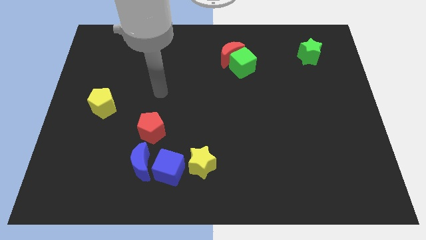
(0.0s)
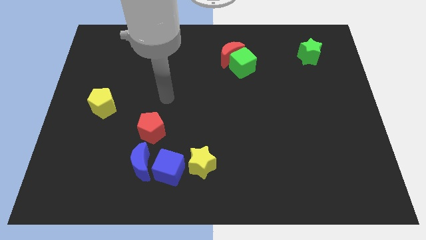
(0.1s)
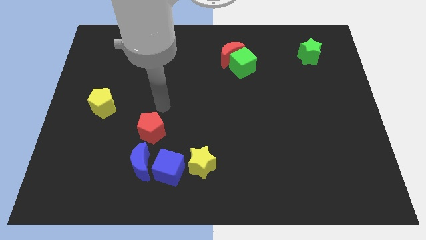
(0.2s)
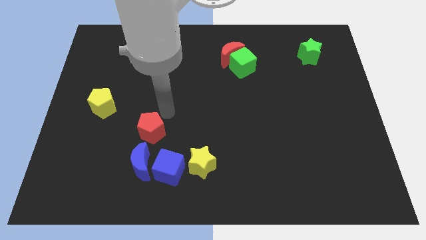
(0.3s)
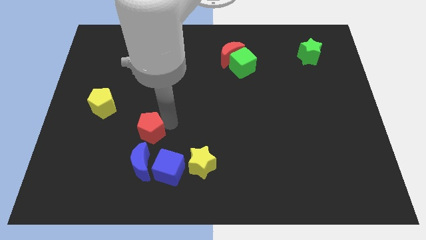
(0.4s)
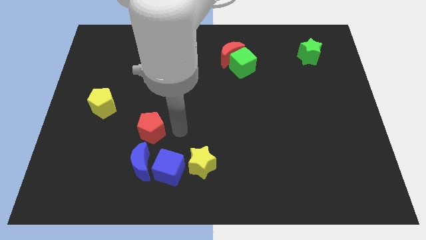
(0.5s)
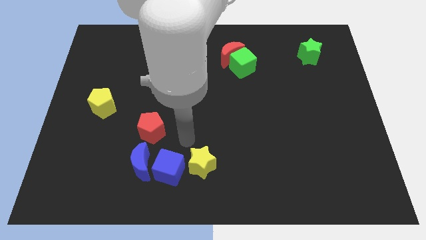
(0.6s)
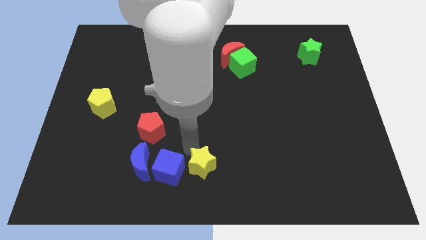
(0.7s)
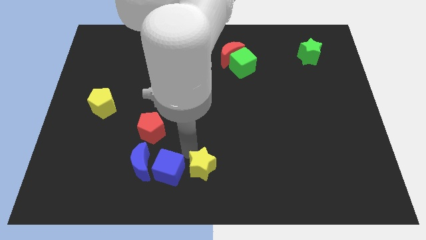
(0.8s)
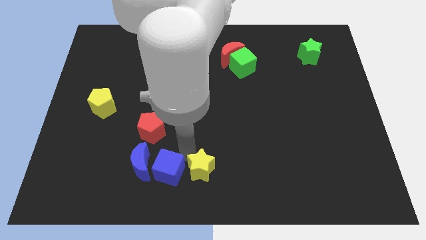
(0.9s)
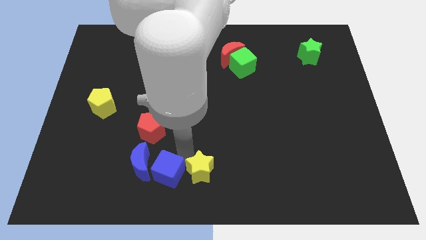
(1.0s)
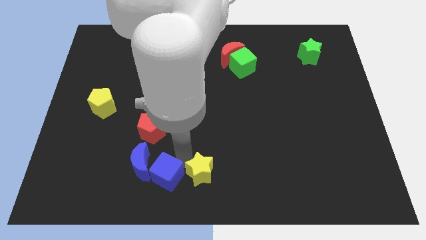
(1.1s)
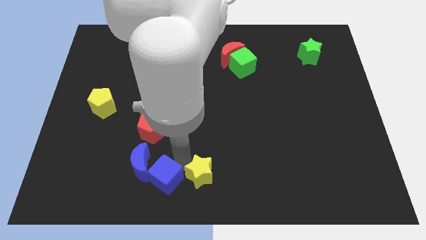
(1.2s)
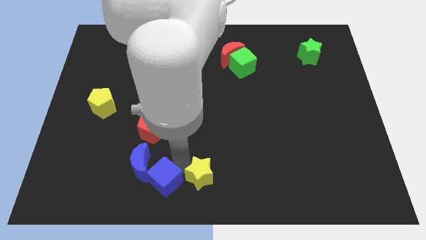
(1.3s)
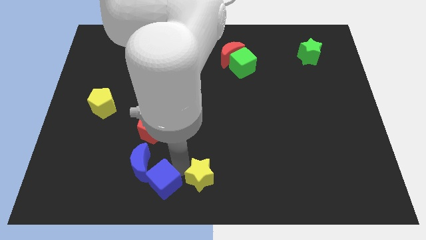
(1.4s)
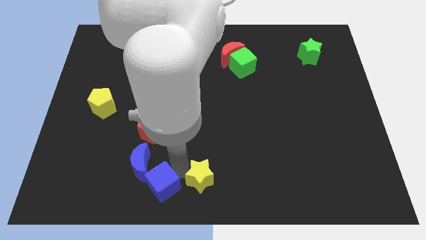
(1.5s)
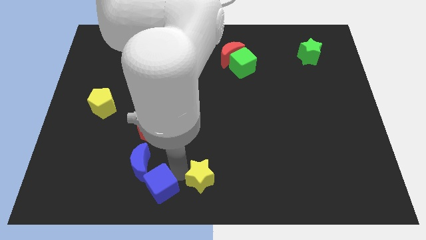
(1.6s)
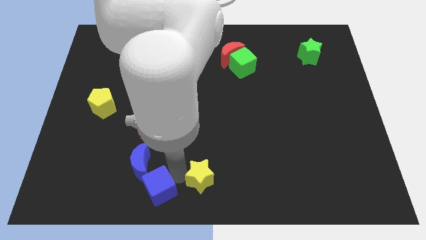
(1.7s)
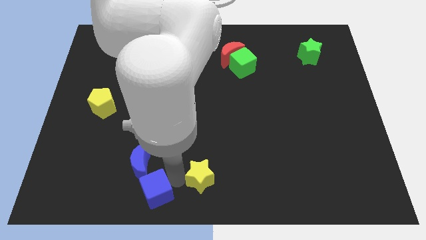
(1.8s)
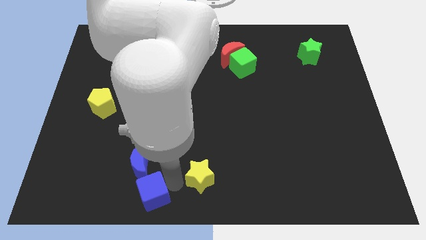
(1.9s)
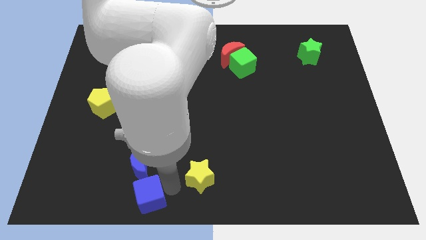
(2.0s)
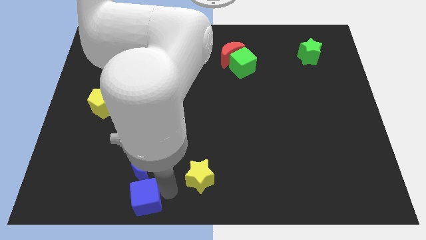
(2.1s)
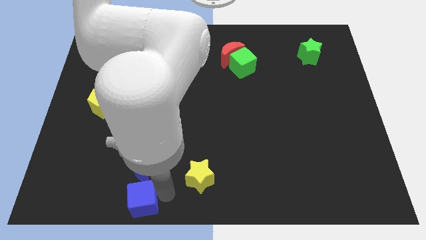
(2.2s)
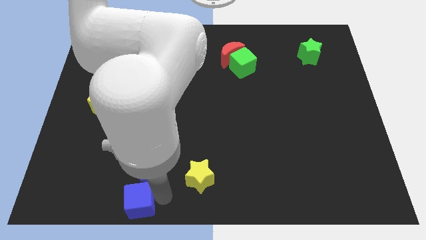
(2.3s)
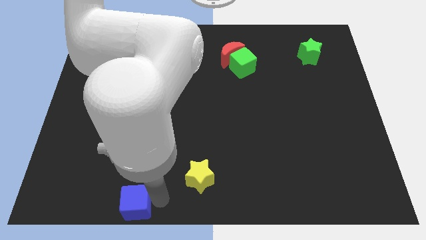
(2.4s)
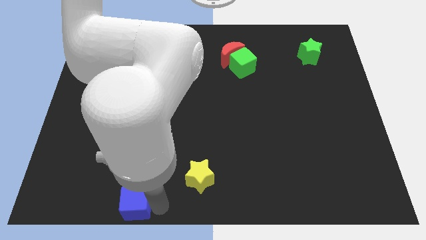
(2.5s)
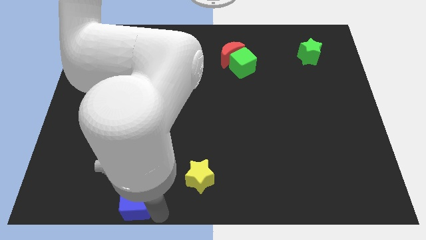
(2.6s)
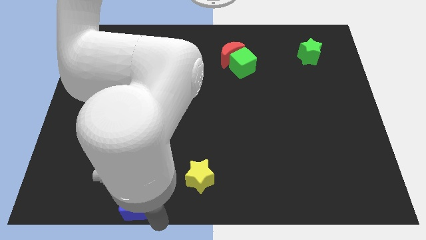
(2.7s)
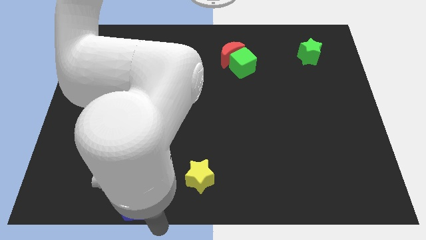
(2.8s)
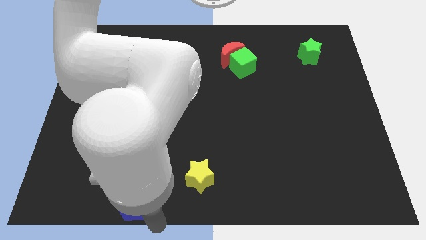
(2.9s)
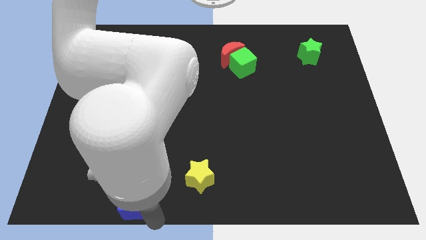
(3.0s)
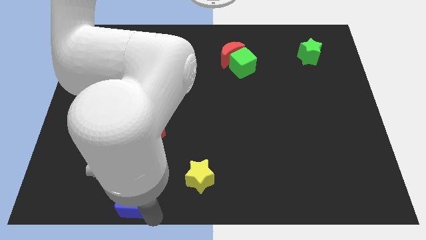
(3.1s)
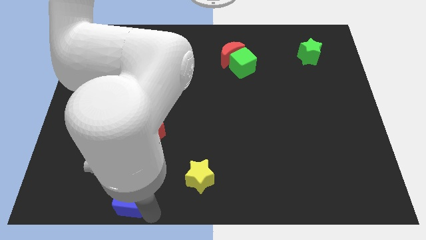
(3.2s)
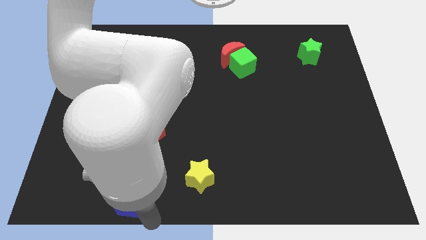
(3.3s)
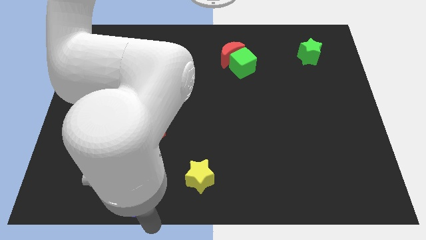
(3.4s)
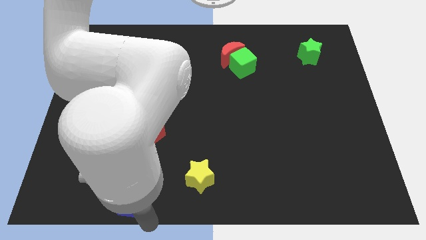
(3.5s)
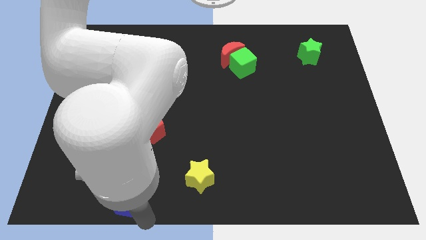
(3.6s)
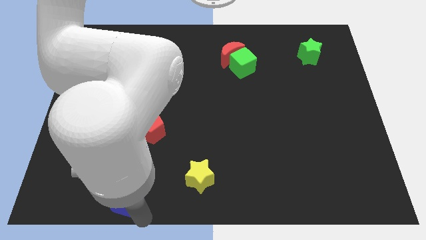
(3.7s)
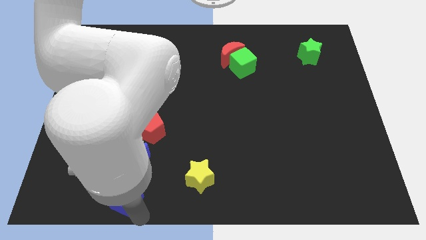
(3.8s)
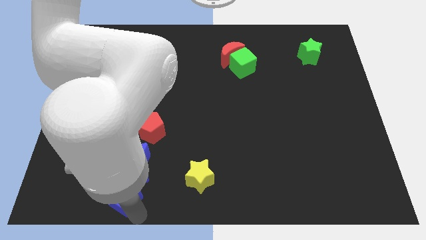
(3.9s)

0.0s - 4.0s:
slightly slide the blue cube left

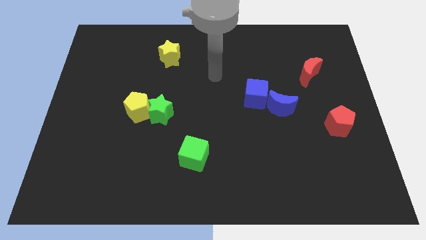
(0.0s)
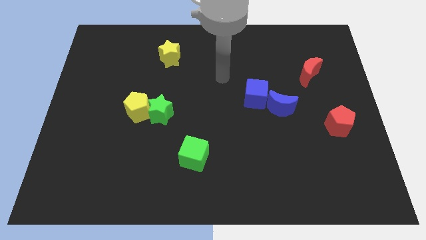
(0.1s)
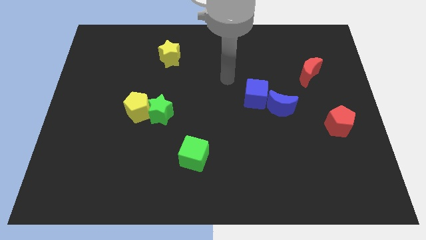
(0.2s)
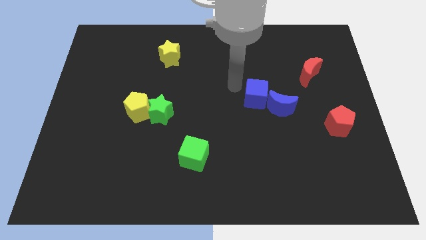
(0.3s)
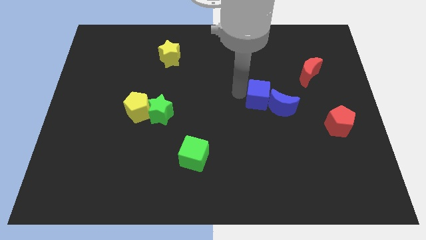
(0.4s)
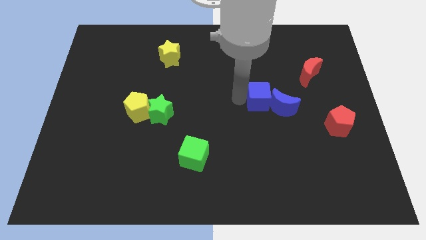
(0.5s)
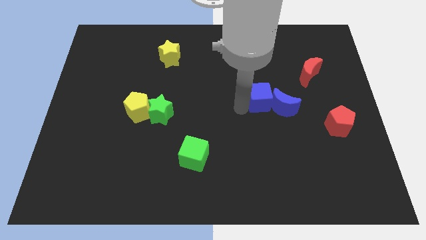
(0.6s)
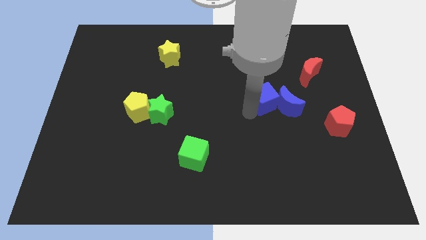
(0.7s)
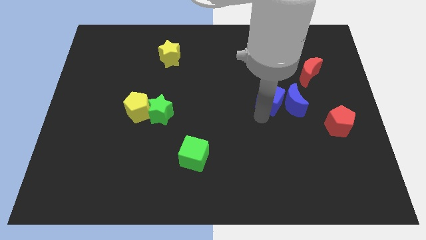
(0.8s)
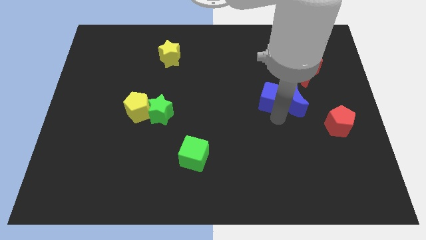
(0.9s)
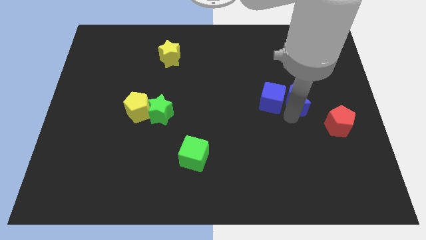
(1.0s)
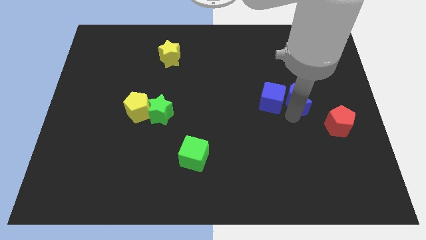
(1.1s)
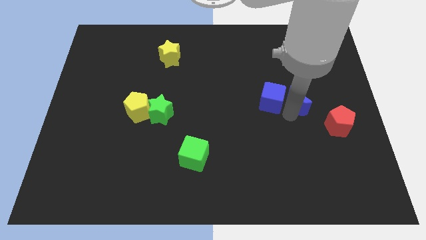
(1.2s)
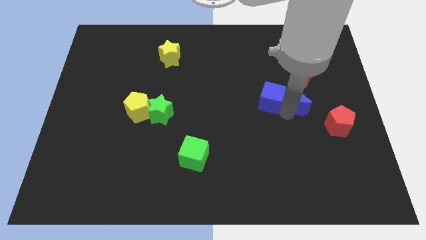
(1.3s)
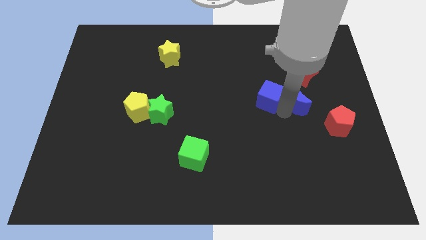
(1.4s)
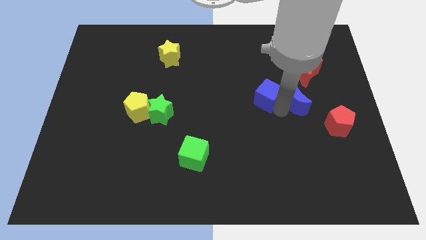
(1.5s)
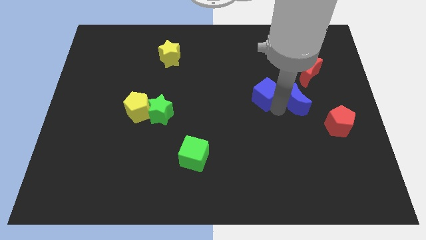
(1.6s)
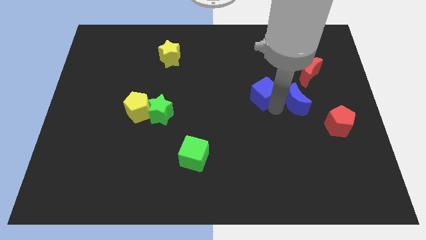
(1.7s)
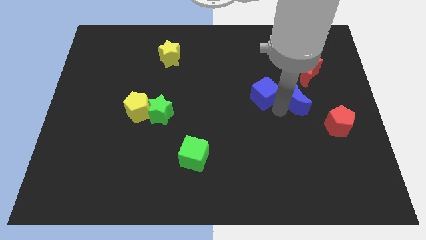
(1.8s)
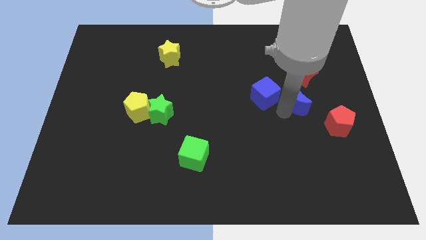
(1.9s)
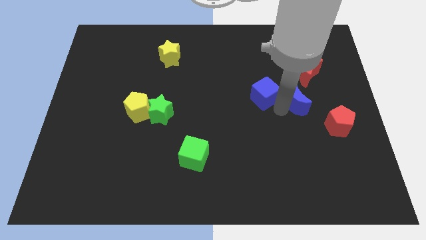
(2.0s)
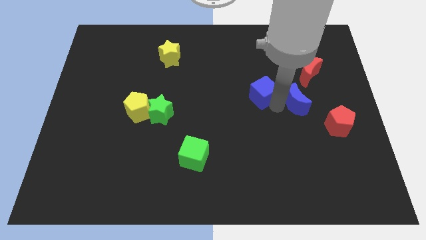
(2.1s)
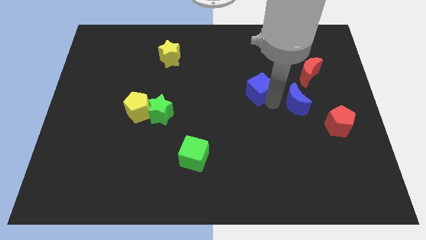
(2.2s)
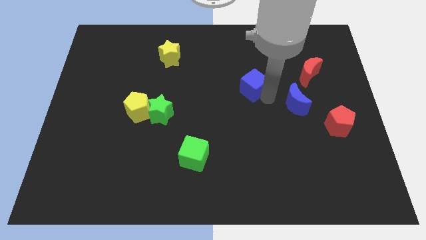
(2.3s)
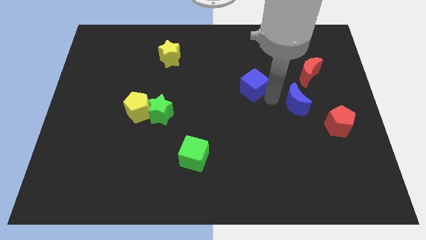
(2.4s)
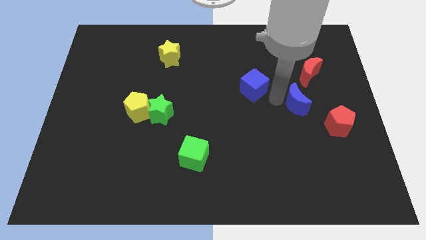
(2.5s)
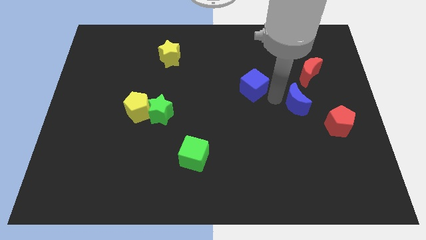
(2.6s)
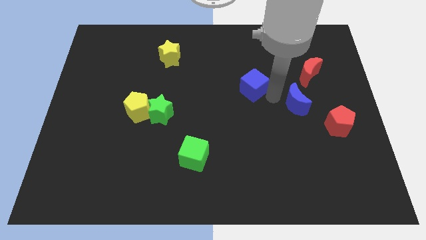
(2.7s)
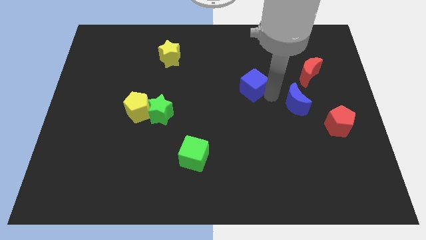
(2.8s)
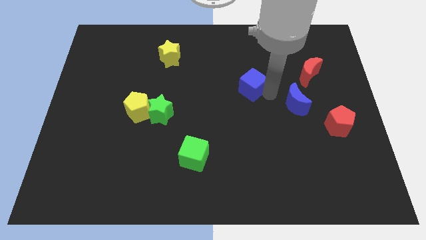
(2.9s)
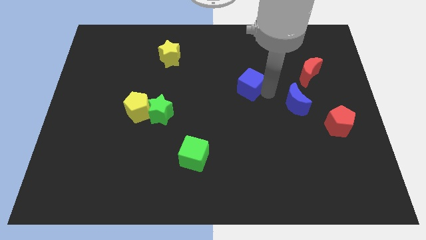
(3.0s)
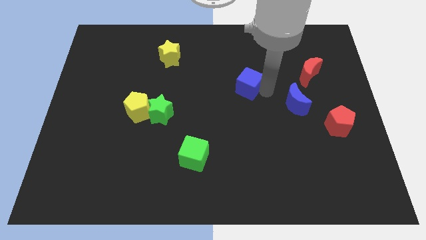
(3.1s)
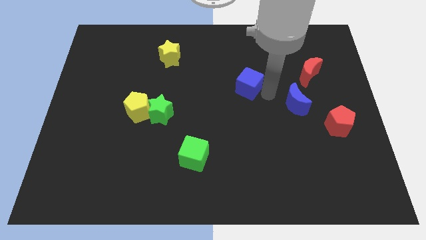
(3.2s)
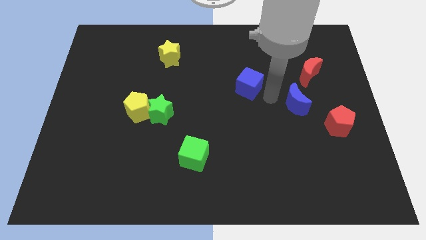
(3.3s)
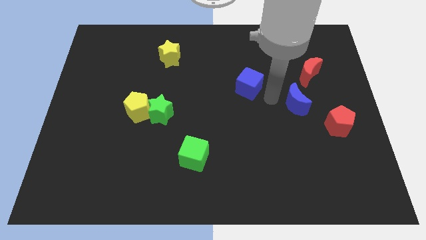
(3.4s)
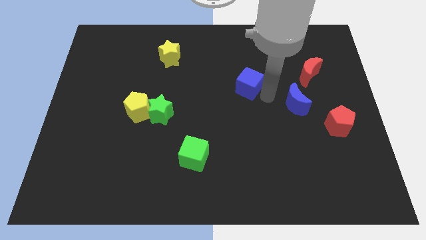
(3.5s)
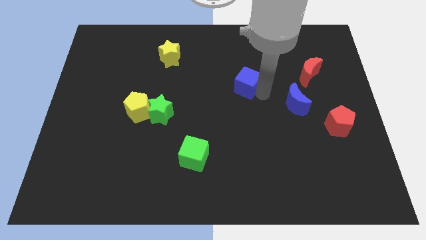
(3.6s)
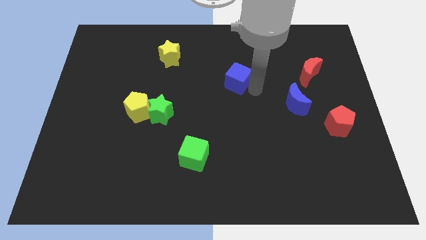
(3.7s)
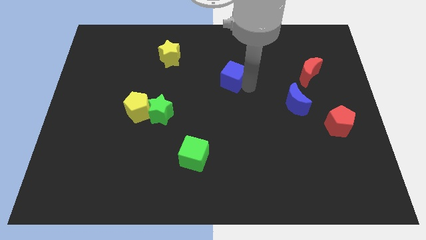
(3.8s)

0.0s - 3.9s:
slightly move the blue cube up and left diagonally
